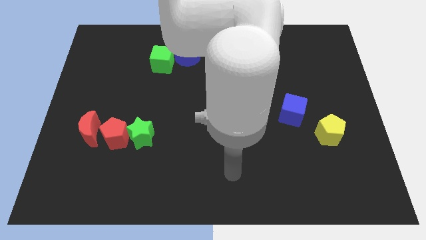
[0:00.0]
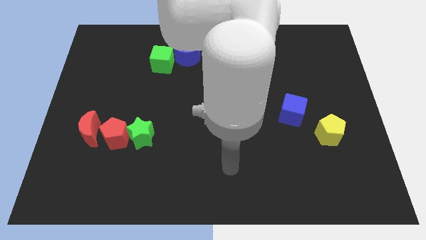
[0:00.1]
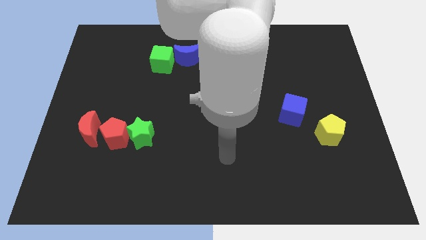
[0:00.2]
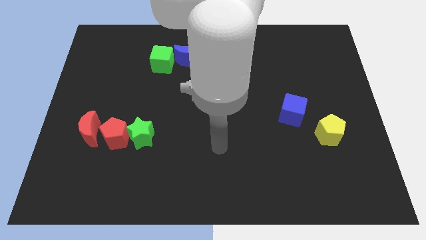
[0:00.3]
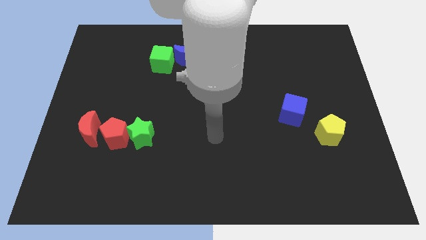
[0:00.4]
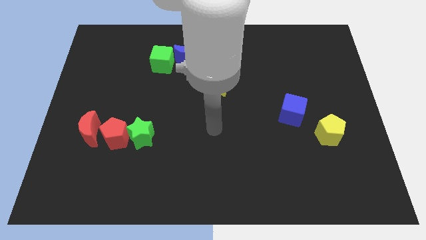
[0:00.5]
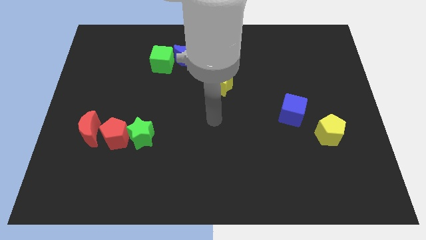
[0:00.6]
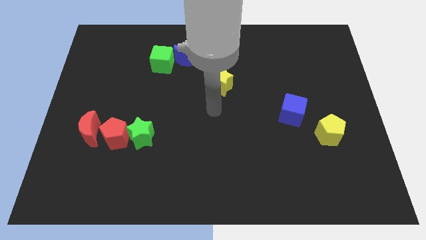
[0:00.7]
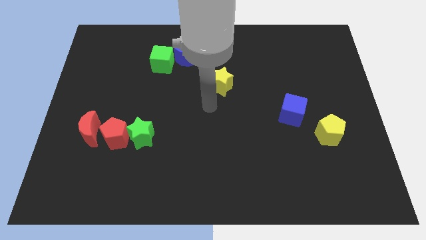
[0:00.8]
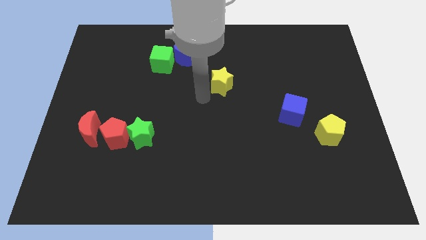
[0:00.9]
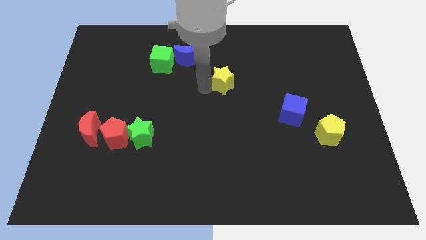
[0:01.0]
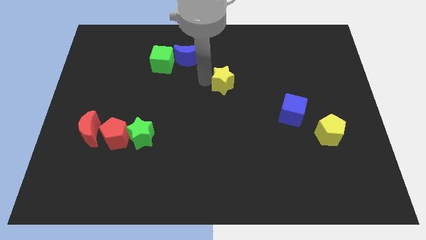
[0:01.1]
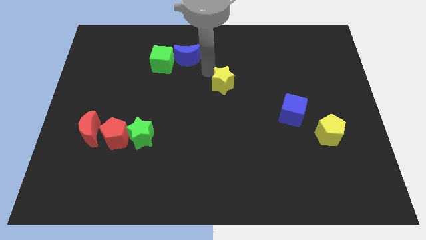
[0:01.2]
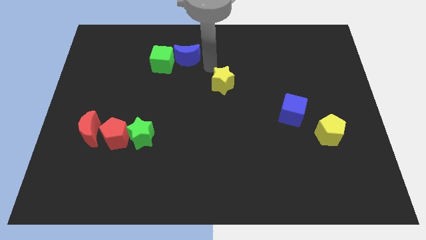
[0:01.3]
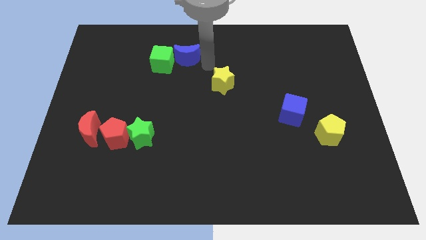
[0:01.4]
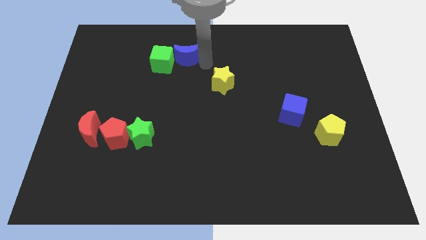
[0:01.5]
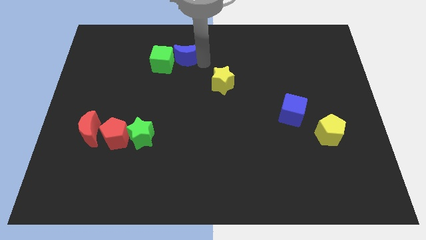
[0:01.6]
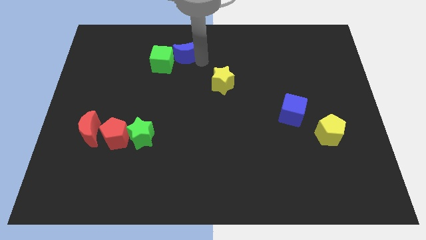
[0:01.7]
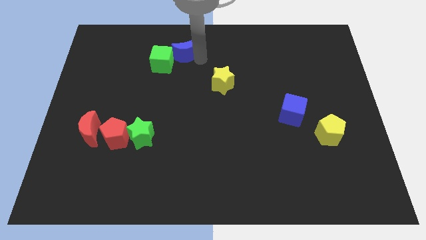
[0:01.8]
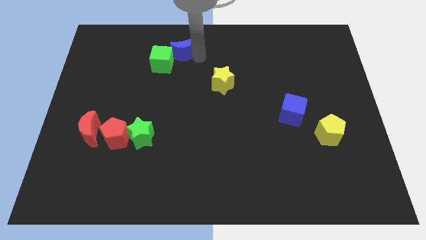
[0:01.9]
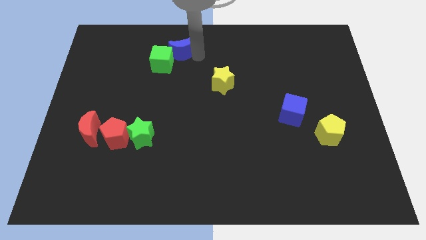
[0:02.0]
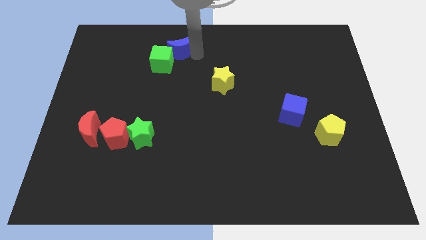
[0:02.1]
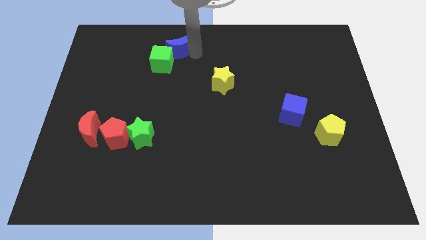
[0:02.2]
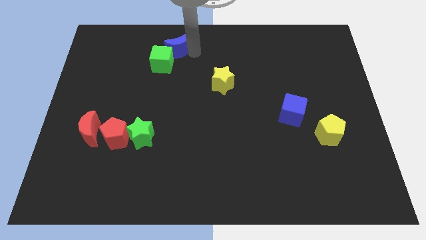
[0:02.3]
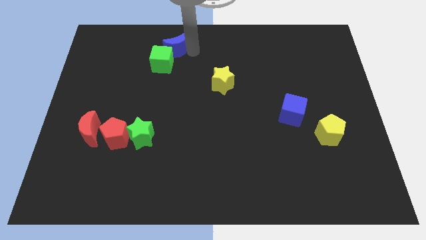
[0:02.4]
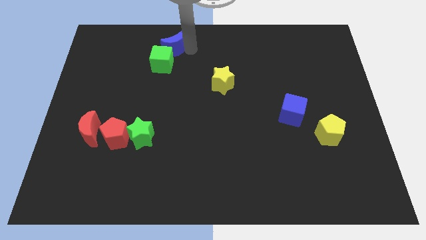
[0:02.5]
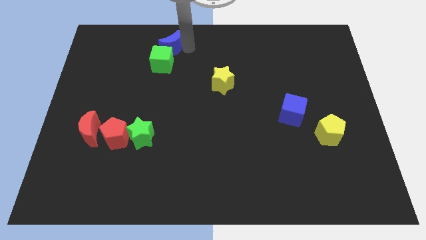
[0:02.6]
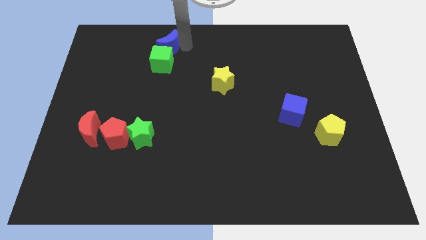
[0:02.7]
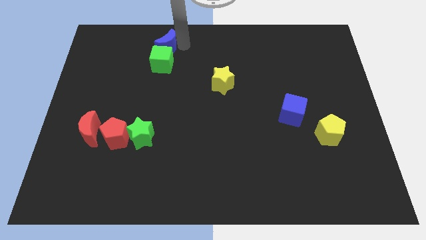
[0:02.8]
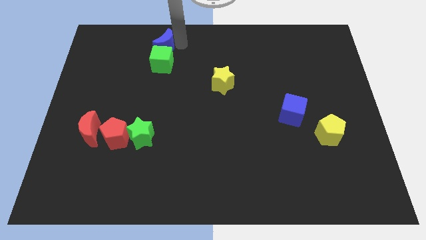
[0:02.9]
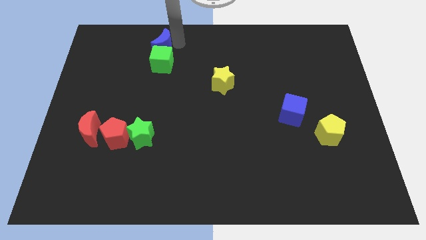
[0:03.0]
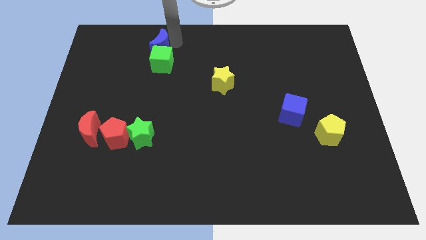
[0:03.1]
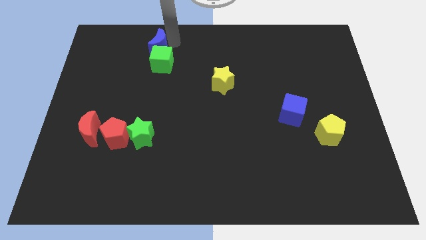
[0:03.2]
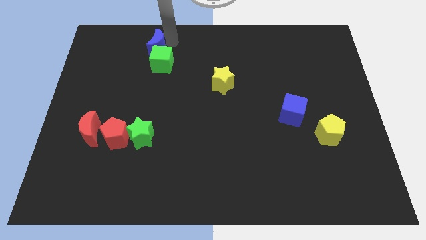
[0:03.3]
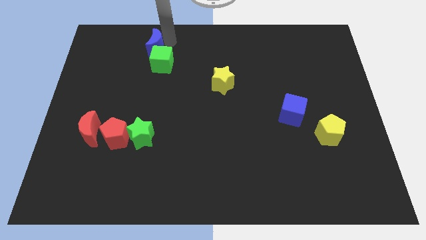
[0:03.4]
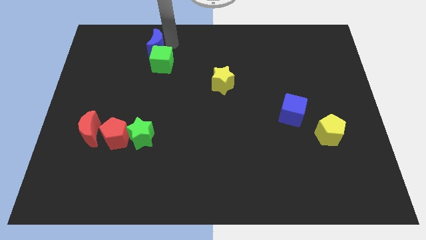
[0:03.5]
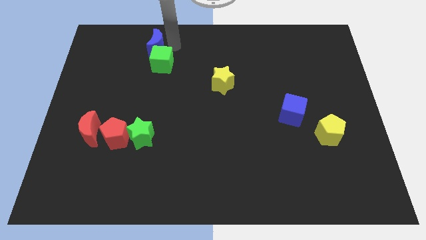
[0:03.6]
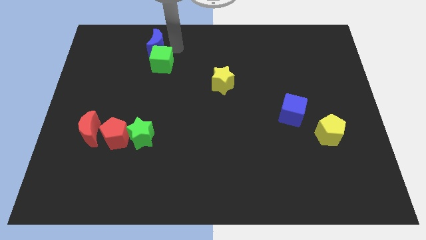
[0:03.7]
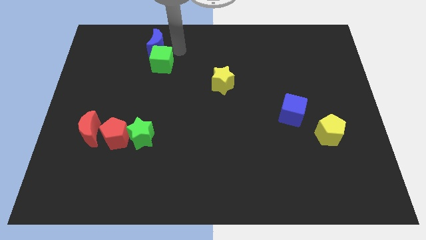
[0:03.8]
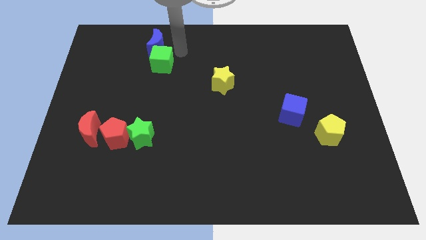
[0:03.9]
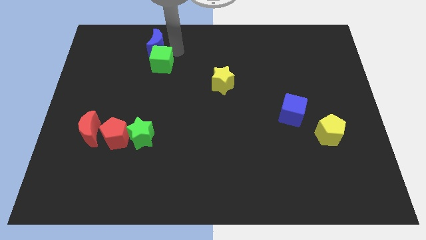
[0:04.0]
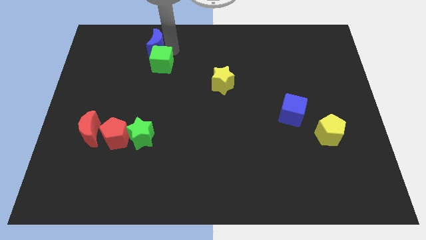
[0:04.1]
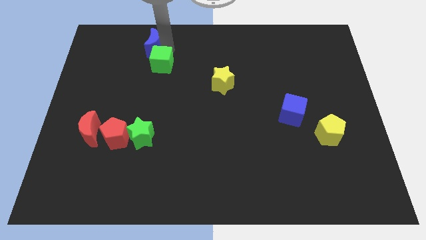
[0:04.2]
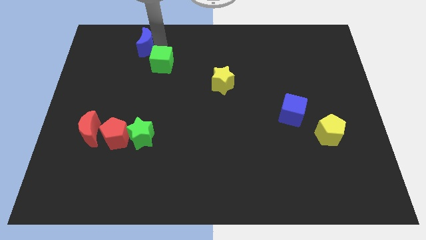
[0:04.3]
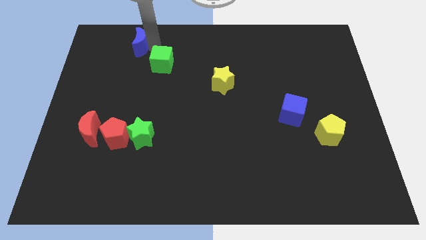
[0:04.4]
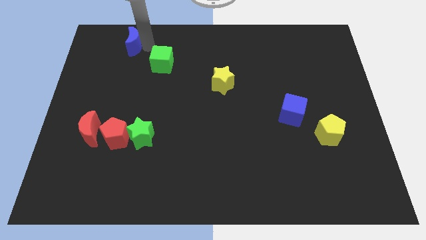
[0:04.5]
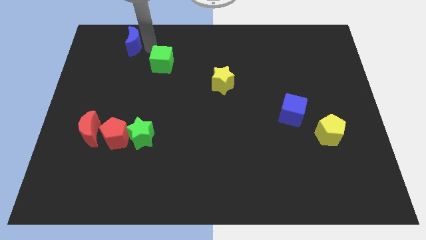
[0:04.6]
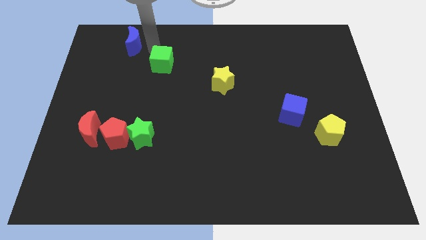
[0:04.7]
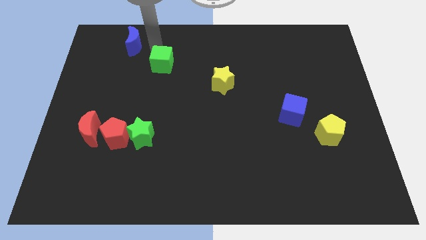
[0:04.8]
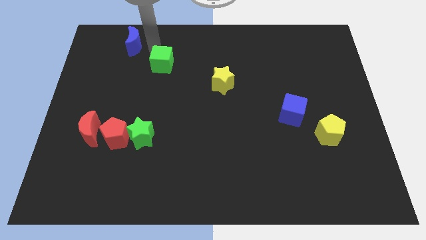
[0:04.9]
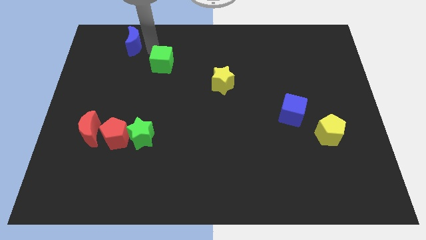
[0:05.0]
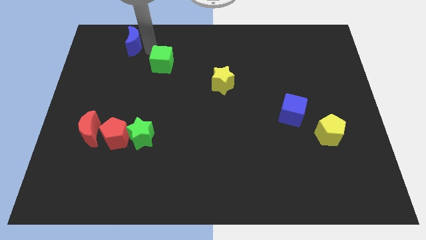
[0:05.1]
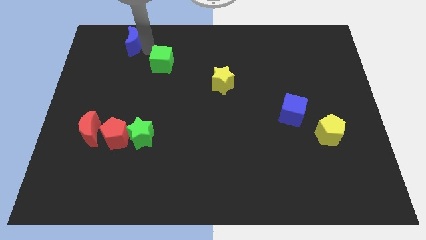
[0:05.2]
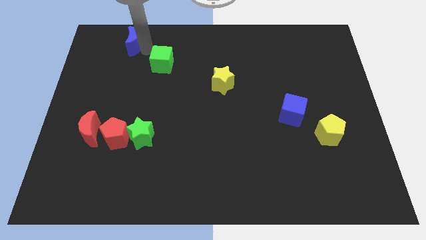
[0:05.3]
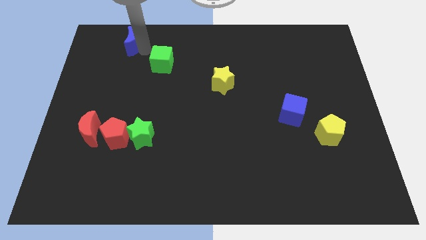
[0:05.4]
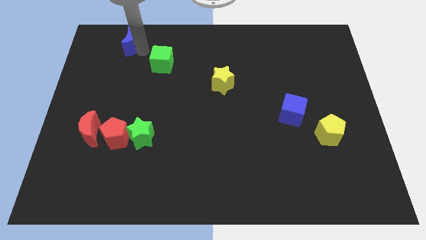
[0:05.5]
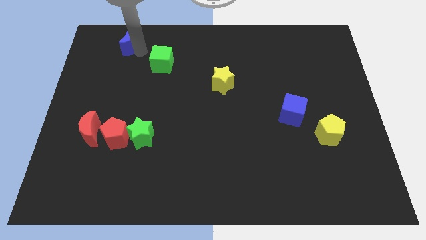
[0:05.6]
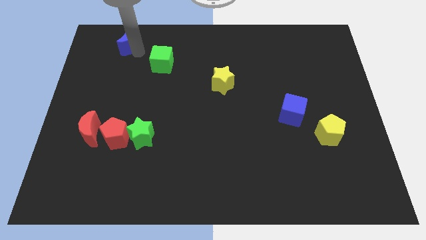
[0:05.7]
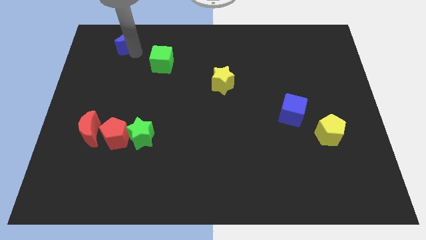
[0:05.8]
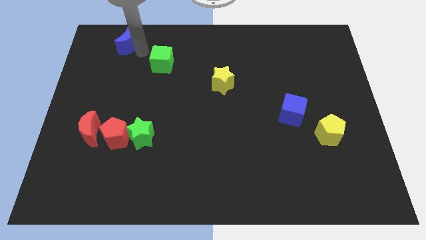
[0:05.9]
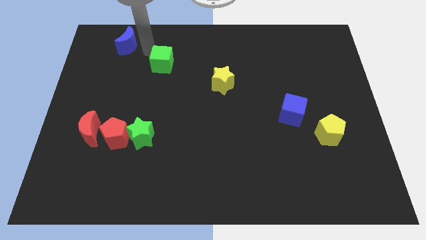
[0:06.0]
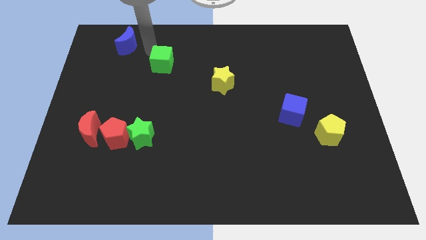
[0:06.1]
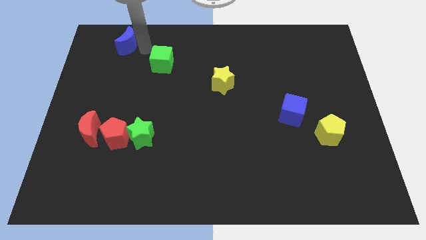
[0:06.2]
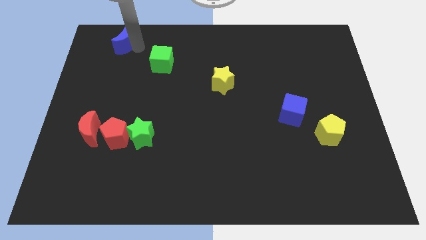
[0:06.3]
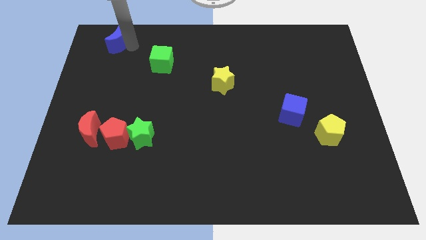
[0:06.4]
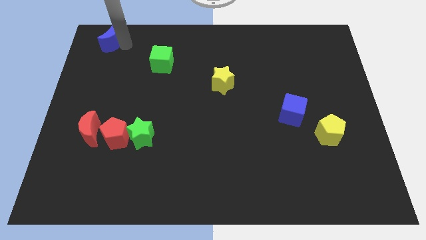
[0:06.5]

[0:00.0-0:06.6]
push the blue moon to the upper left corner
